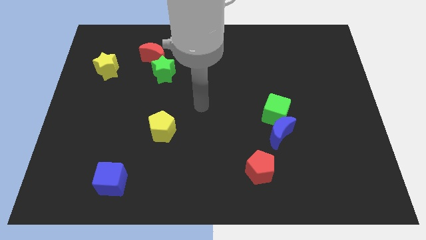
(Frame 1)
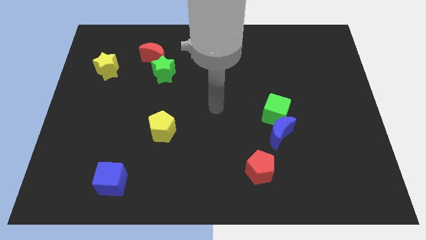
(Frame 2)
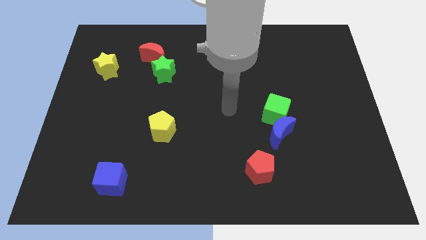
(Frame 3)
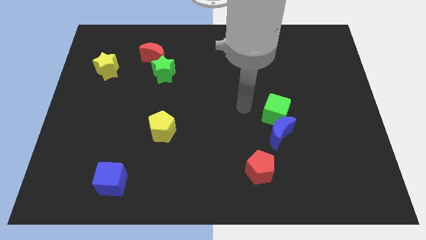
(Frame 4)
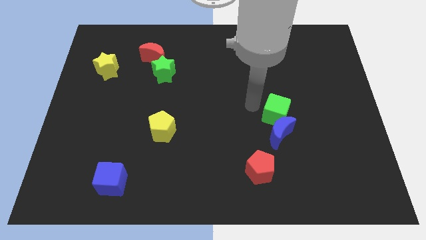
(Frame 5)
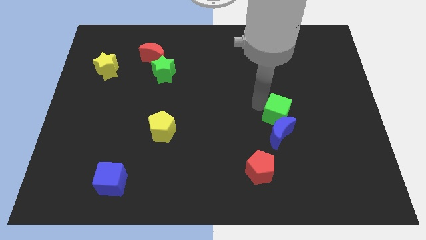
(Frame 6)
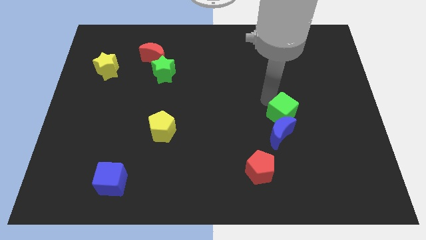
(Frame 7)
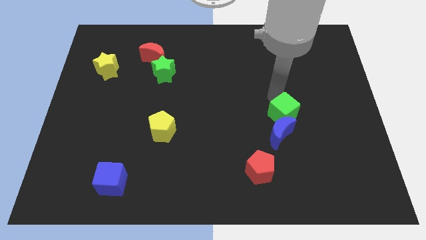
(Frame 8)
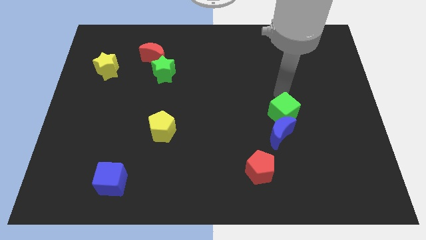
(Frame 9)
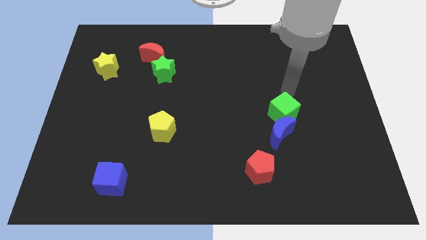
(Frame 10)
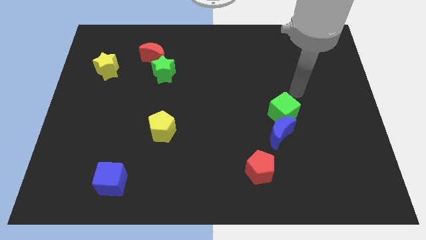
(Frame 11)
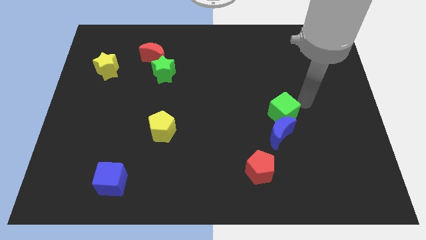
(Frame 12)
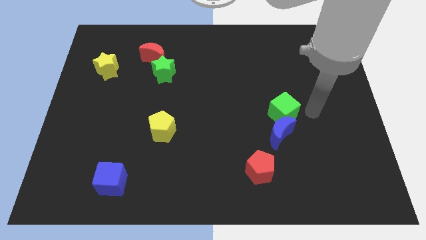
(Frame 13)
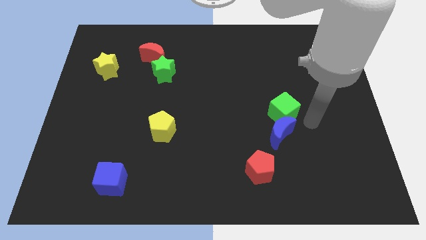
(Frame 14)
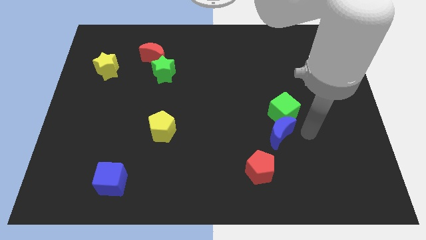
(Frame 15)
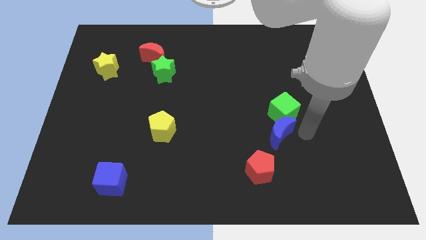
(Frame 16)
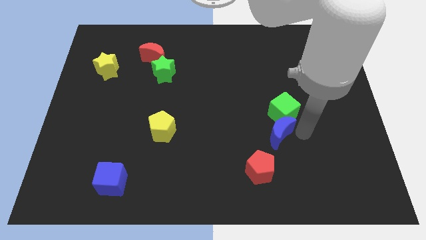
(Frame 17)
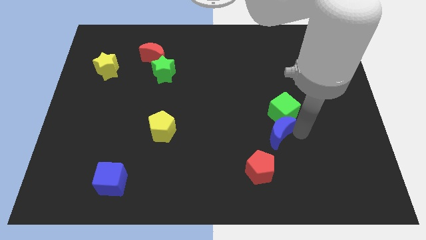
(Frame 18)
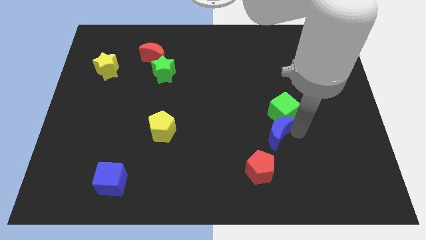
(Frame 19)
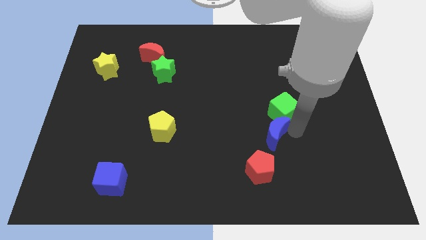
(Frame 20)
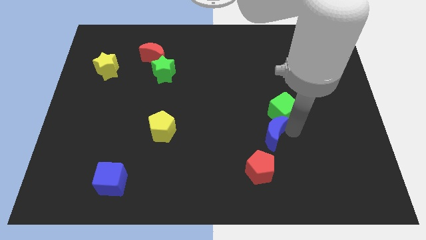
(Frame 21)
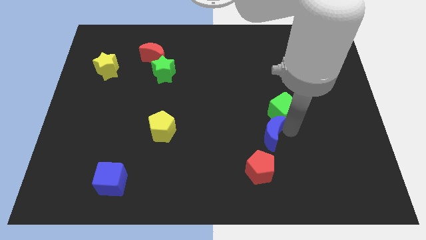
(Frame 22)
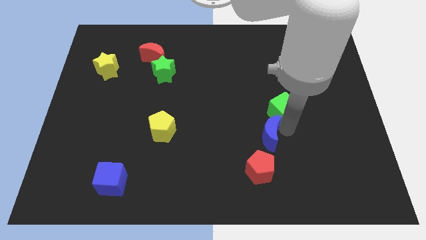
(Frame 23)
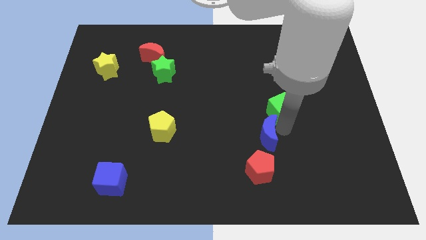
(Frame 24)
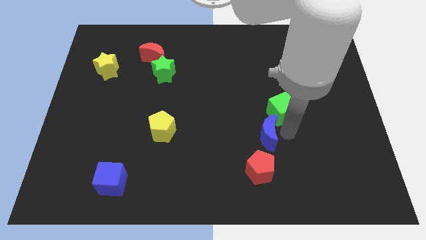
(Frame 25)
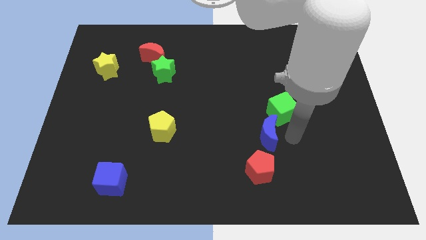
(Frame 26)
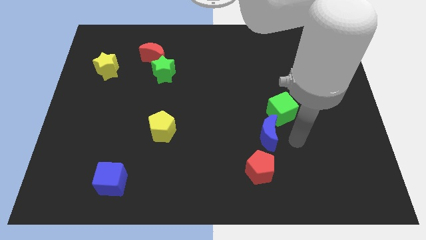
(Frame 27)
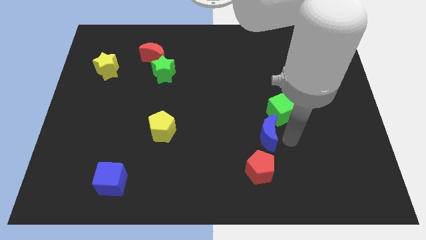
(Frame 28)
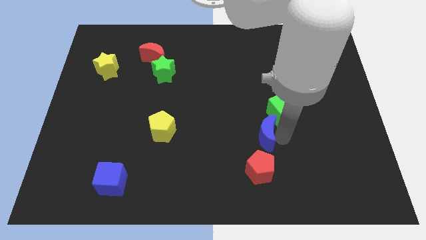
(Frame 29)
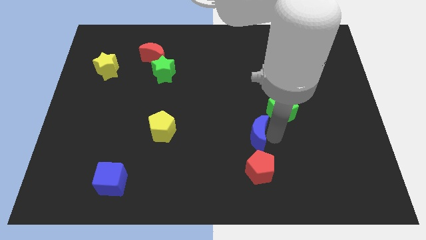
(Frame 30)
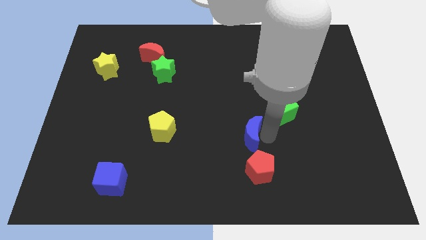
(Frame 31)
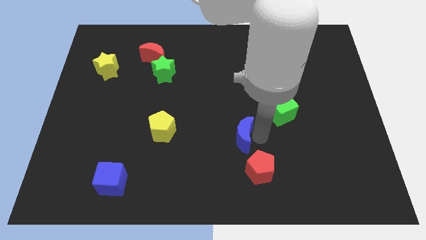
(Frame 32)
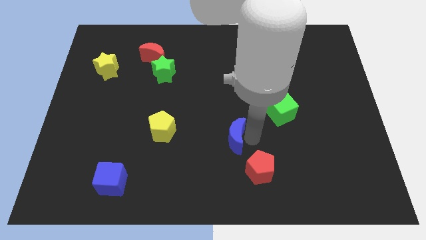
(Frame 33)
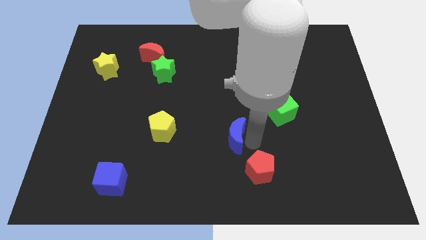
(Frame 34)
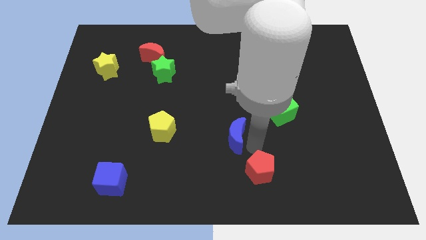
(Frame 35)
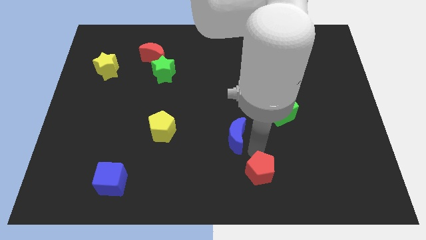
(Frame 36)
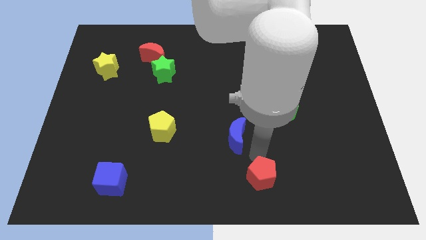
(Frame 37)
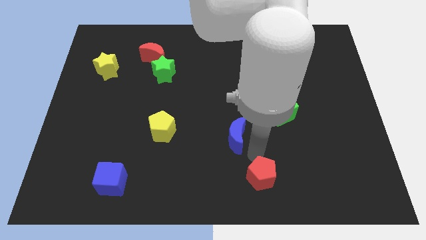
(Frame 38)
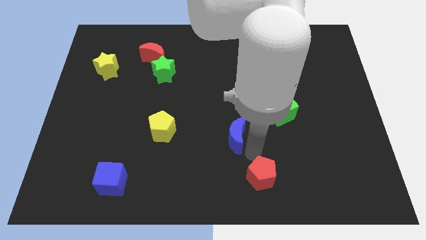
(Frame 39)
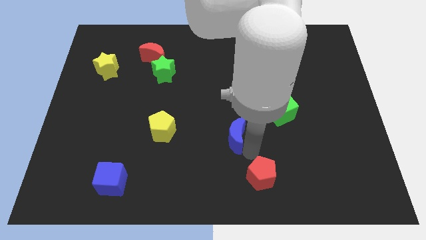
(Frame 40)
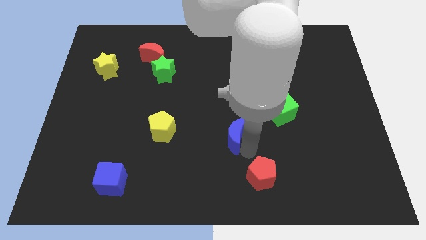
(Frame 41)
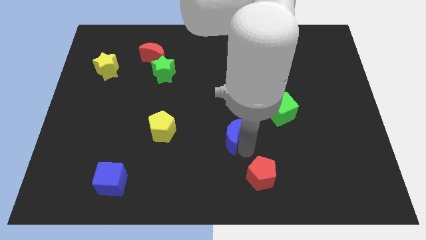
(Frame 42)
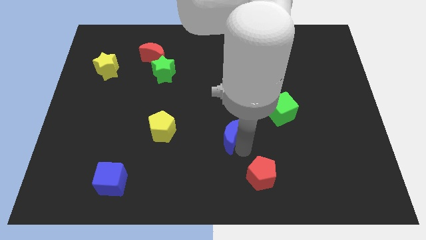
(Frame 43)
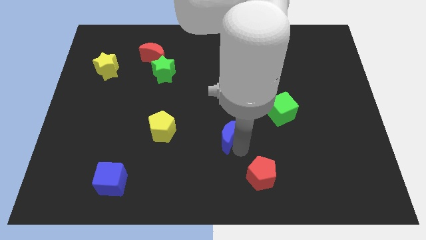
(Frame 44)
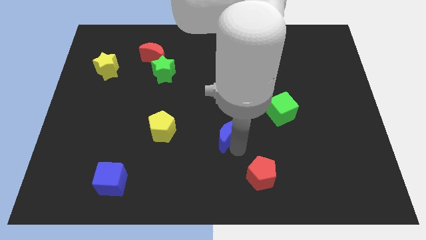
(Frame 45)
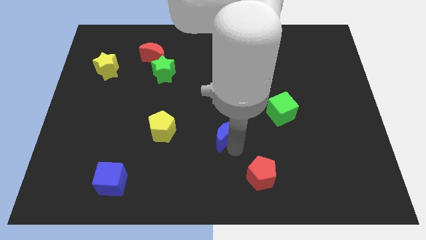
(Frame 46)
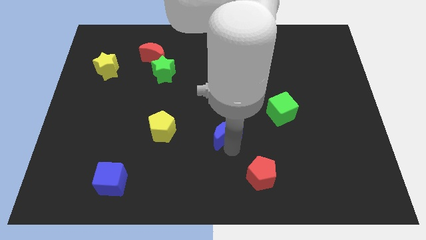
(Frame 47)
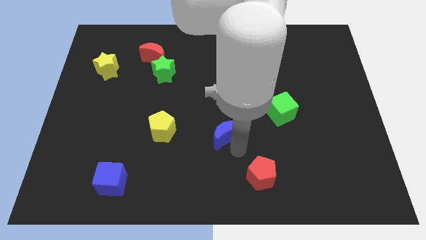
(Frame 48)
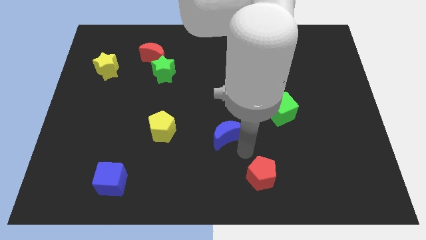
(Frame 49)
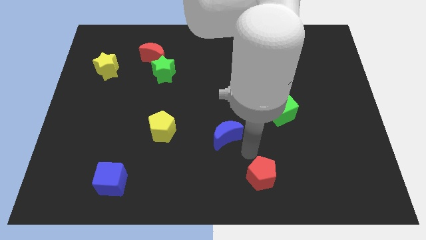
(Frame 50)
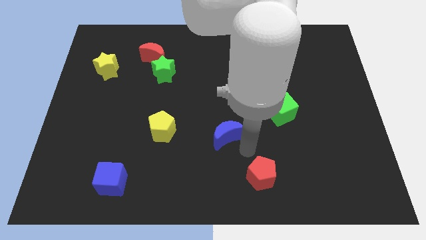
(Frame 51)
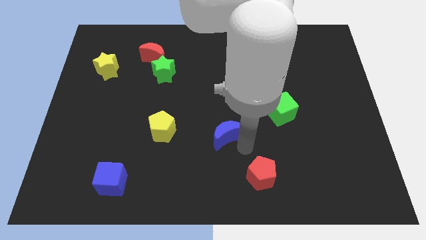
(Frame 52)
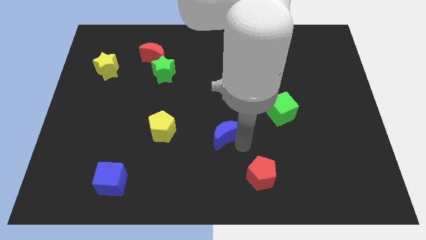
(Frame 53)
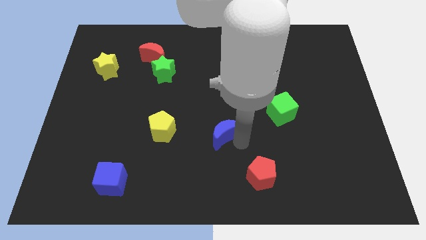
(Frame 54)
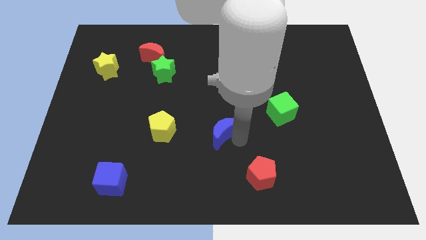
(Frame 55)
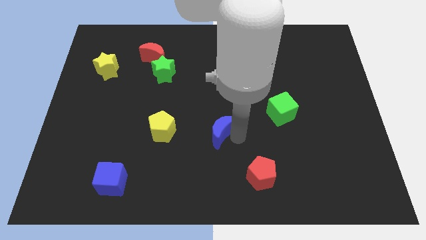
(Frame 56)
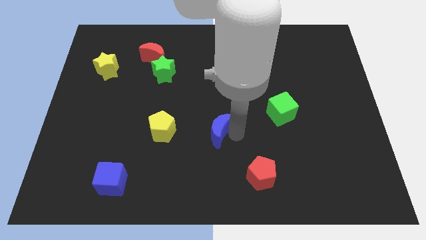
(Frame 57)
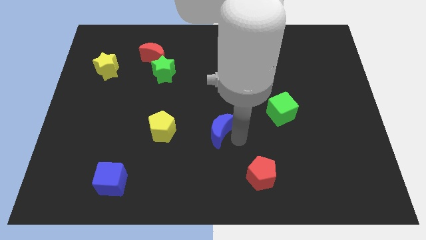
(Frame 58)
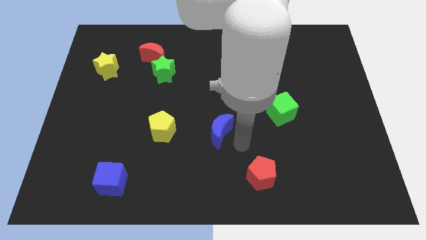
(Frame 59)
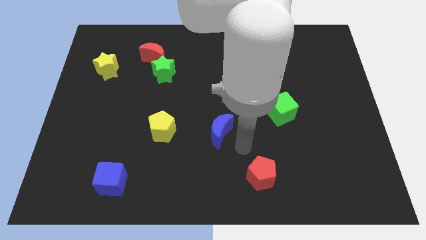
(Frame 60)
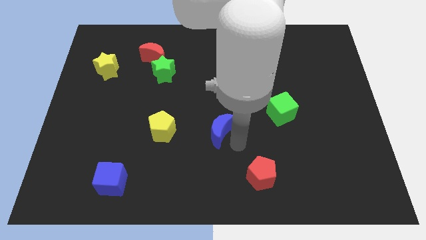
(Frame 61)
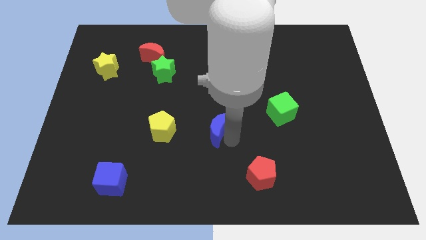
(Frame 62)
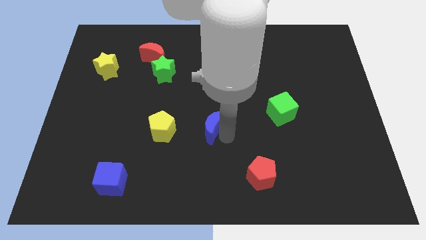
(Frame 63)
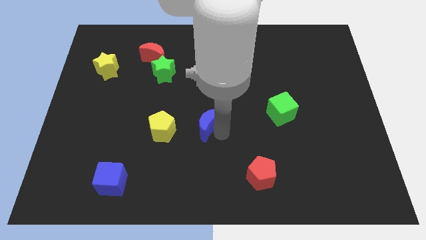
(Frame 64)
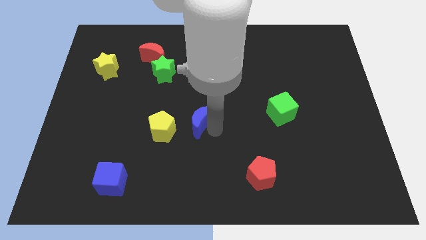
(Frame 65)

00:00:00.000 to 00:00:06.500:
move the blue moon diagonally up and to the right of the yellow pentagon

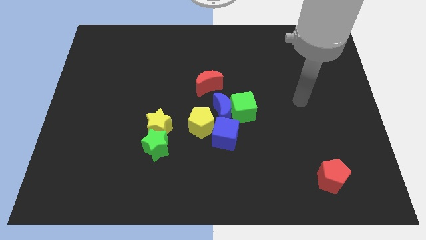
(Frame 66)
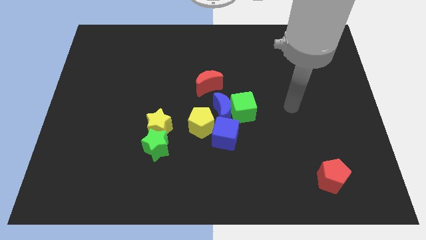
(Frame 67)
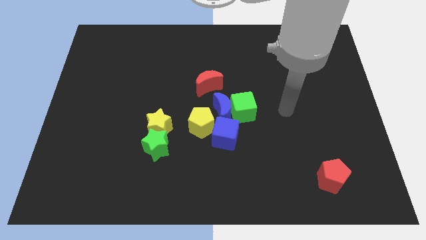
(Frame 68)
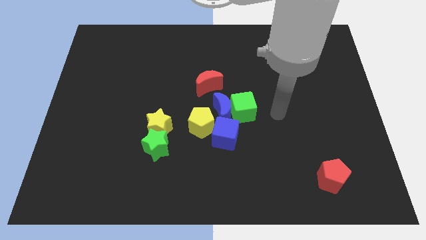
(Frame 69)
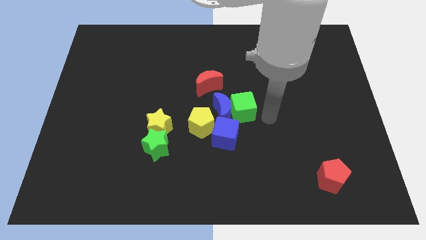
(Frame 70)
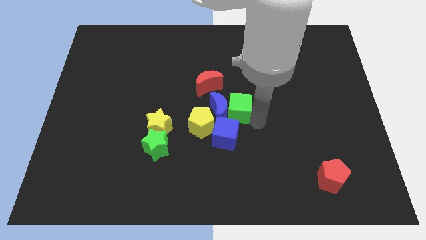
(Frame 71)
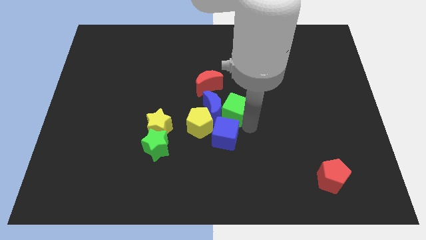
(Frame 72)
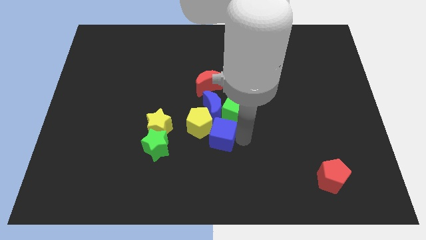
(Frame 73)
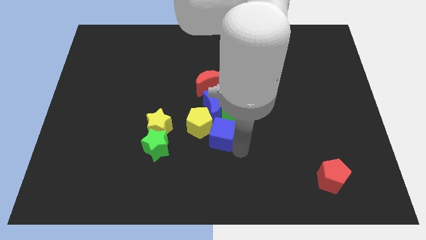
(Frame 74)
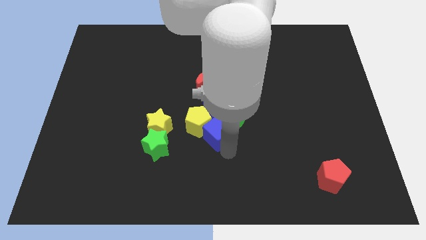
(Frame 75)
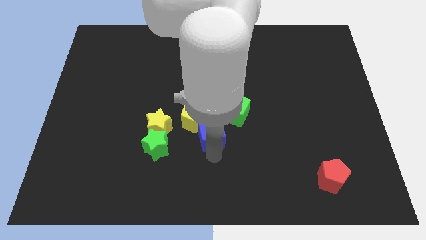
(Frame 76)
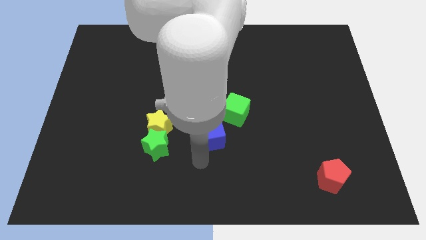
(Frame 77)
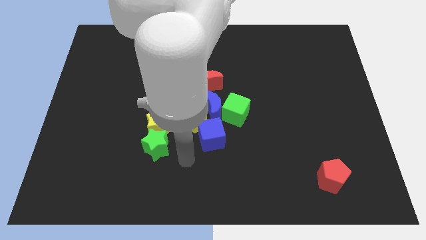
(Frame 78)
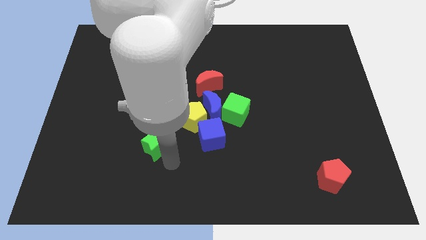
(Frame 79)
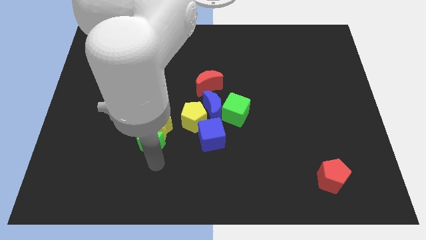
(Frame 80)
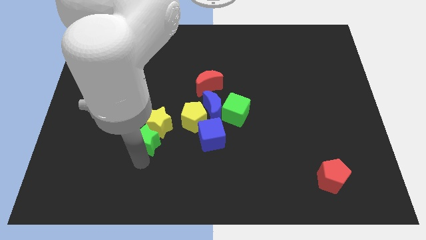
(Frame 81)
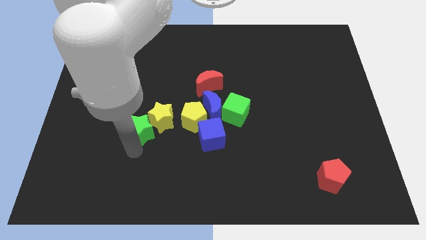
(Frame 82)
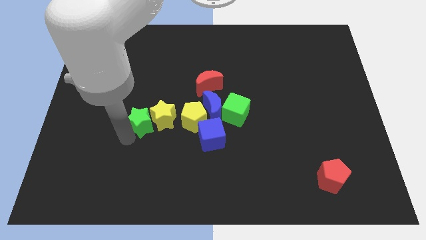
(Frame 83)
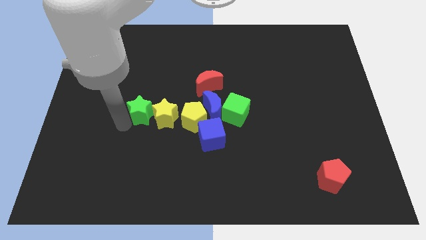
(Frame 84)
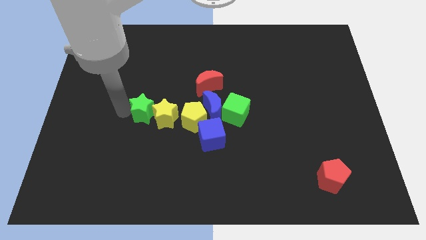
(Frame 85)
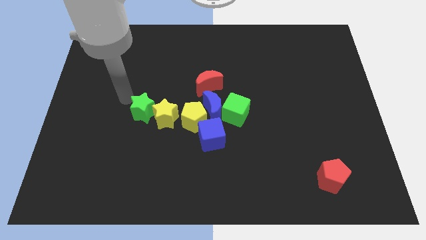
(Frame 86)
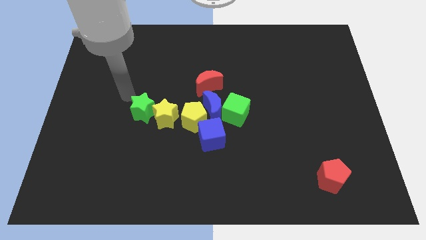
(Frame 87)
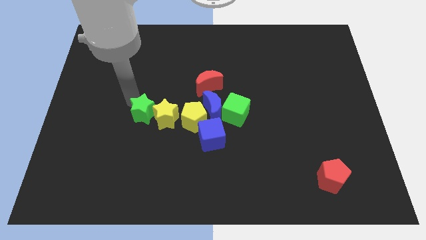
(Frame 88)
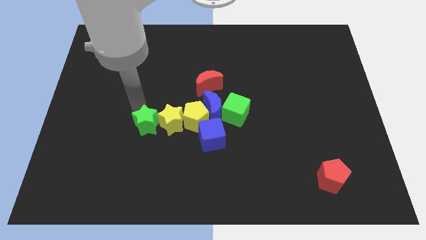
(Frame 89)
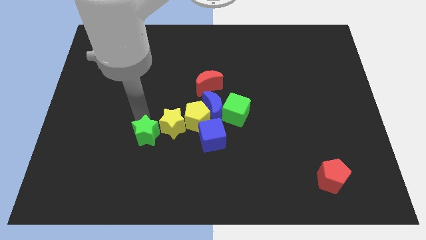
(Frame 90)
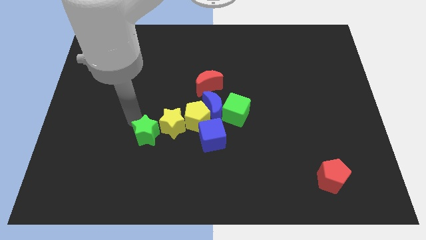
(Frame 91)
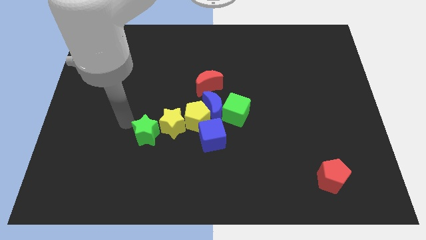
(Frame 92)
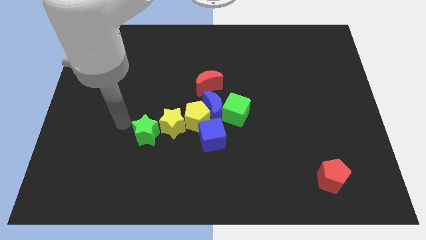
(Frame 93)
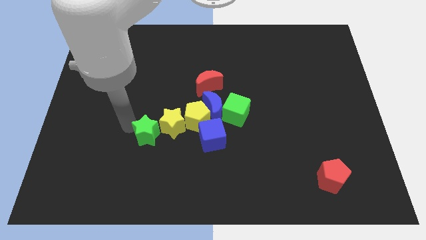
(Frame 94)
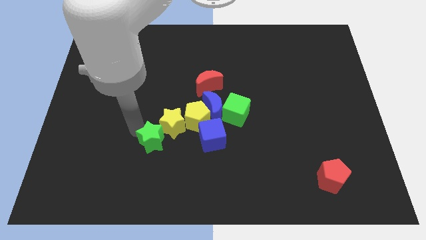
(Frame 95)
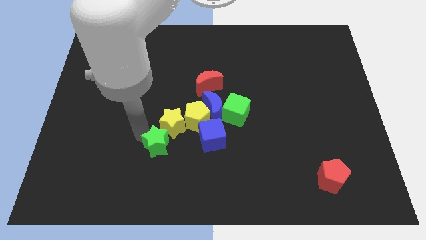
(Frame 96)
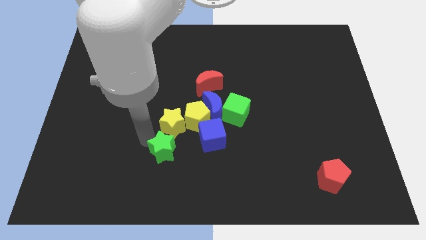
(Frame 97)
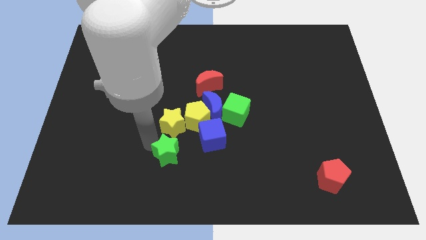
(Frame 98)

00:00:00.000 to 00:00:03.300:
push the green star to the bottom left side of the blue cube
